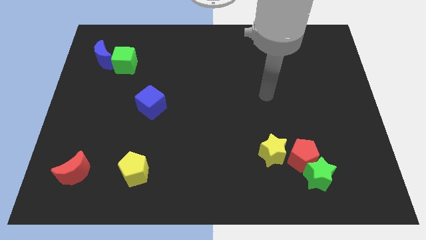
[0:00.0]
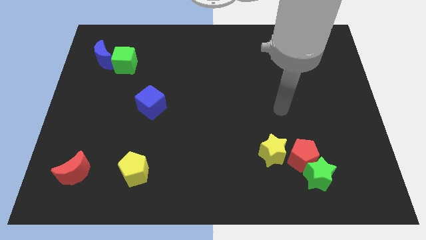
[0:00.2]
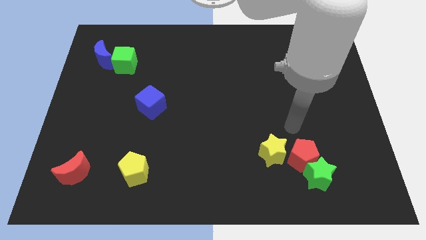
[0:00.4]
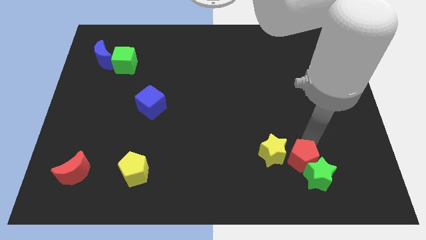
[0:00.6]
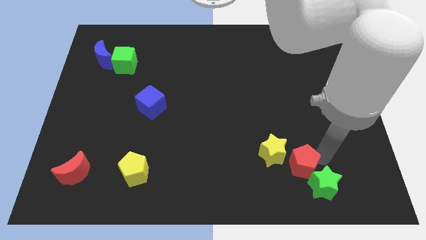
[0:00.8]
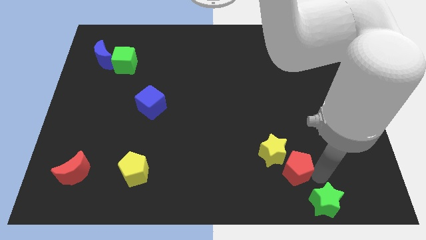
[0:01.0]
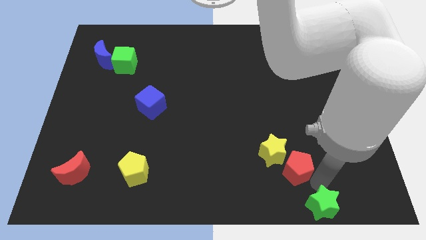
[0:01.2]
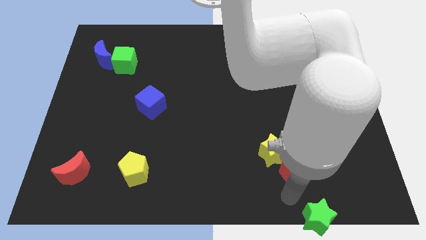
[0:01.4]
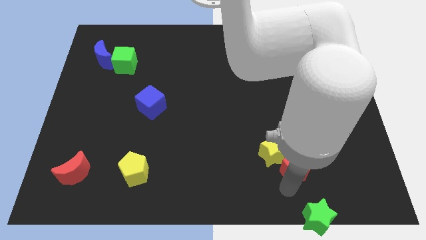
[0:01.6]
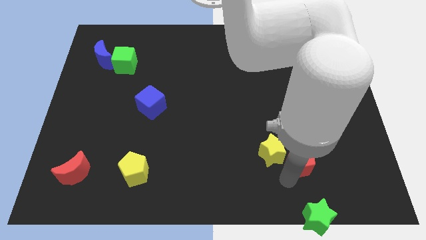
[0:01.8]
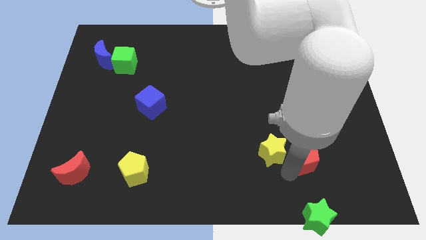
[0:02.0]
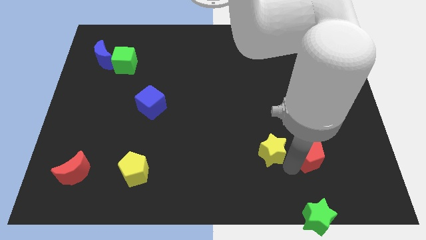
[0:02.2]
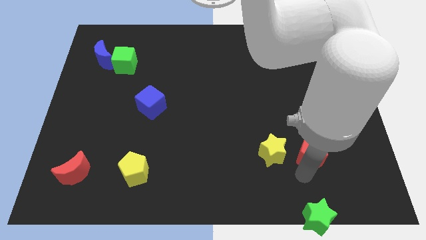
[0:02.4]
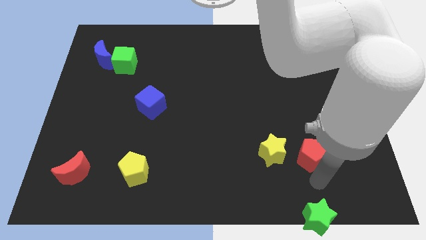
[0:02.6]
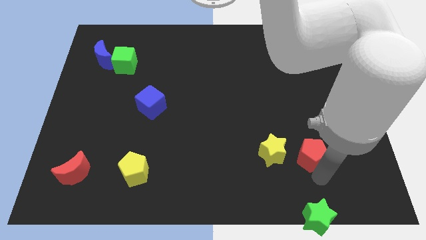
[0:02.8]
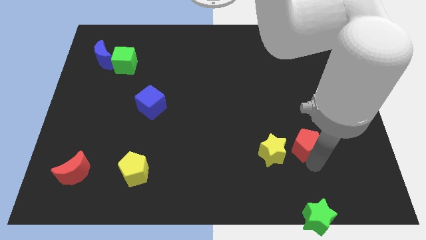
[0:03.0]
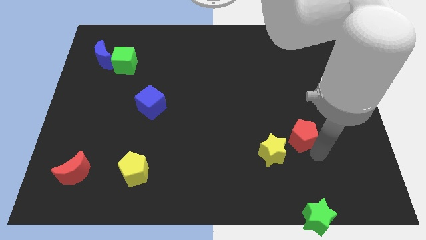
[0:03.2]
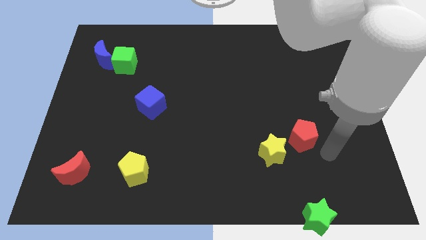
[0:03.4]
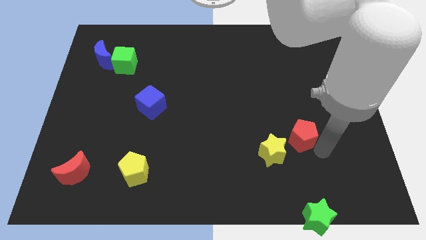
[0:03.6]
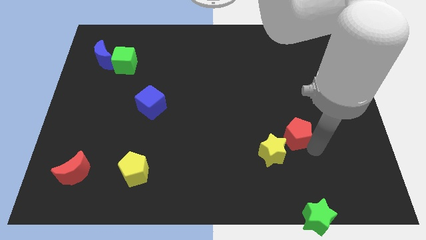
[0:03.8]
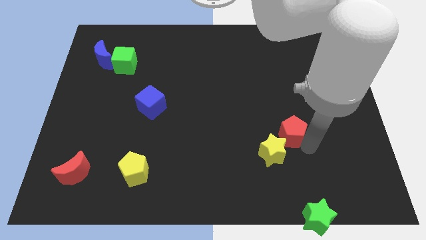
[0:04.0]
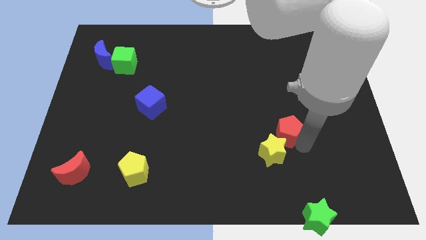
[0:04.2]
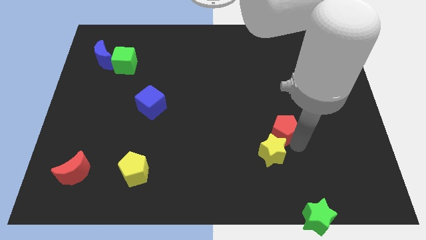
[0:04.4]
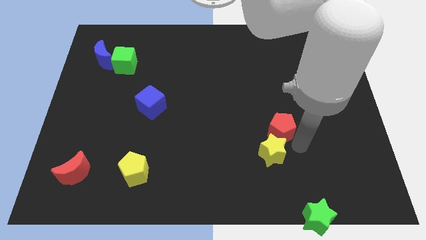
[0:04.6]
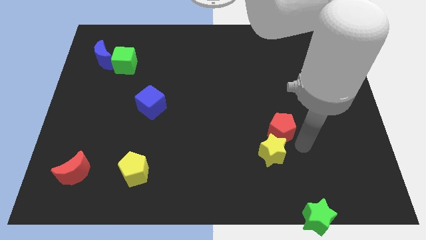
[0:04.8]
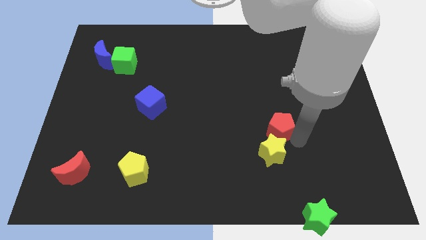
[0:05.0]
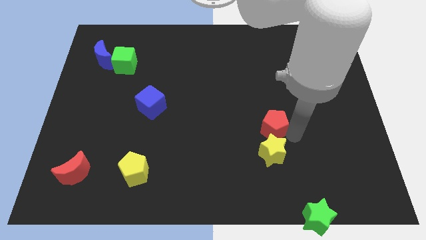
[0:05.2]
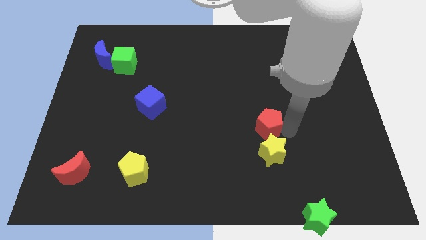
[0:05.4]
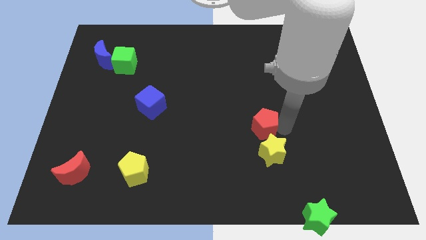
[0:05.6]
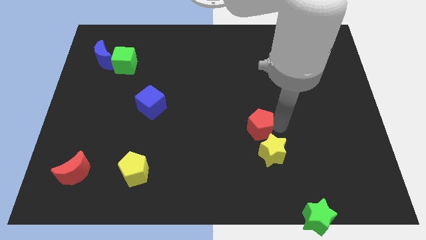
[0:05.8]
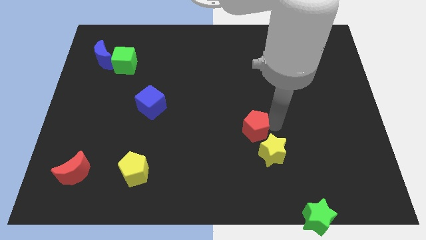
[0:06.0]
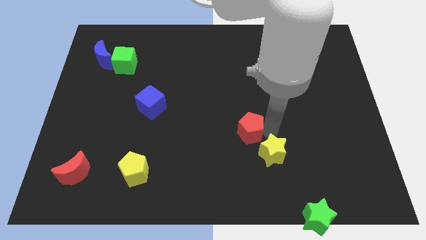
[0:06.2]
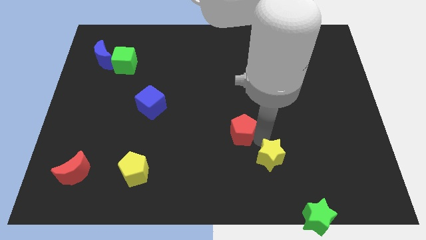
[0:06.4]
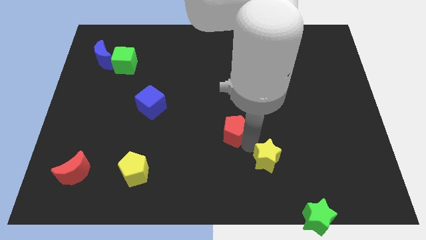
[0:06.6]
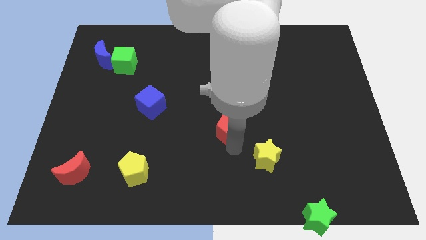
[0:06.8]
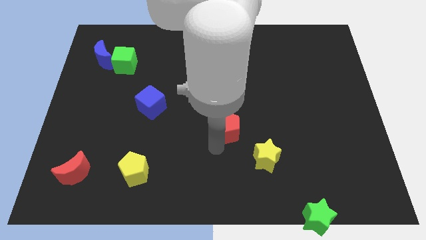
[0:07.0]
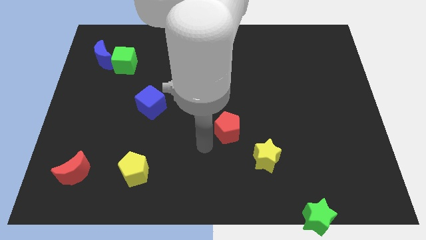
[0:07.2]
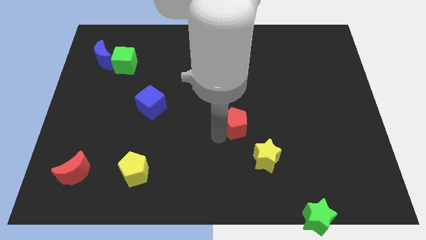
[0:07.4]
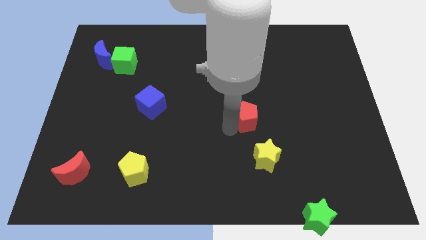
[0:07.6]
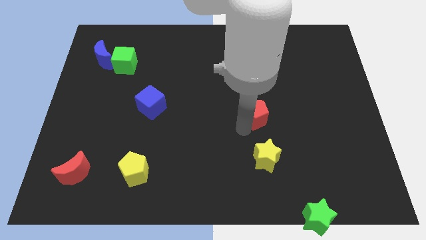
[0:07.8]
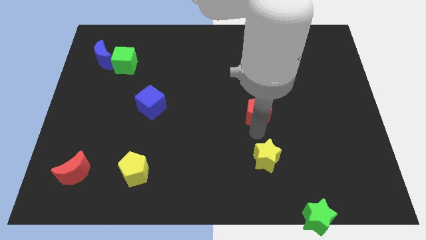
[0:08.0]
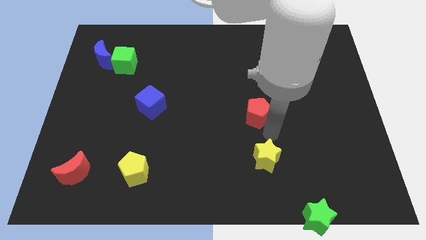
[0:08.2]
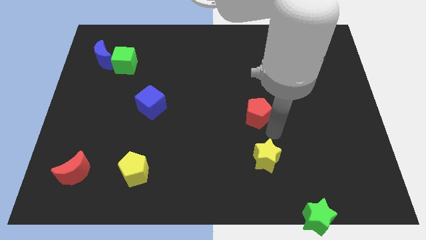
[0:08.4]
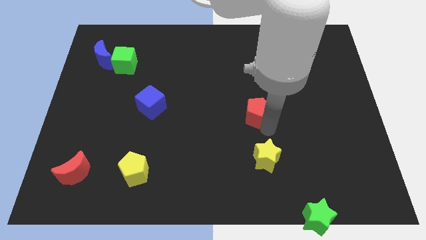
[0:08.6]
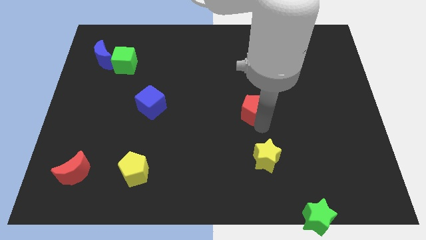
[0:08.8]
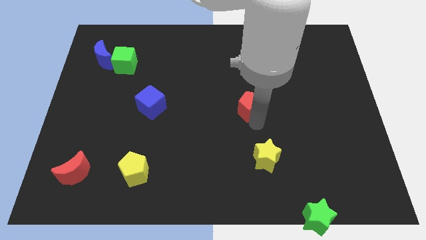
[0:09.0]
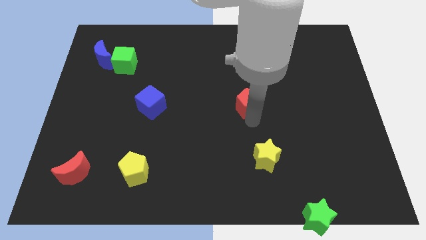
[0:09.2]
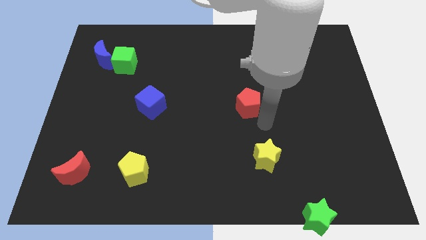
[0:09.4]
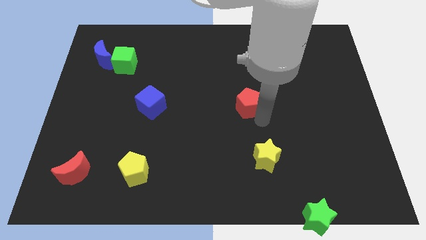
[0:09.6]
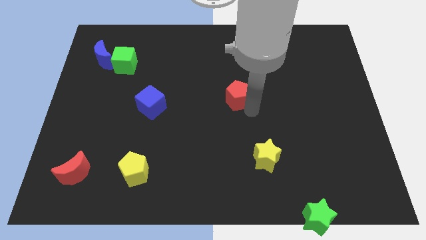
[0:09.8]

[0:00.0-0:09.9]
push the red pentagon diagonally upwards and left

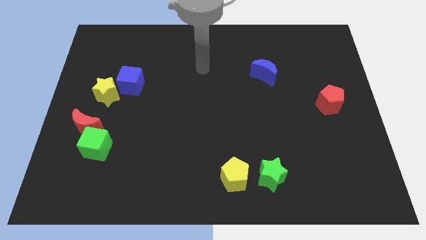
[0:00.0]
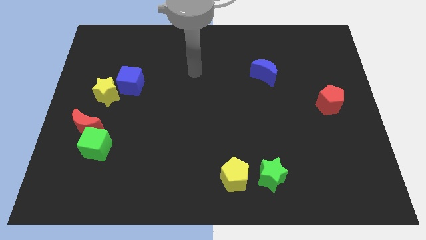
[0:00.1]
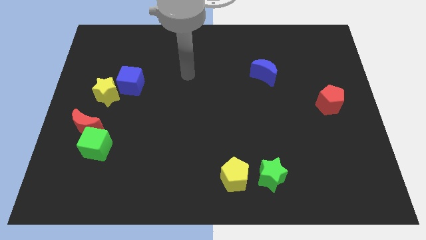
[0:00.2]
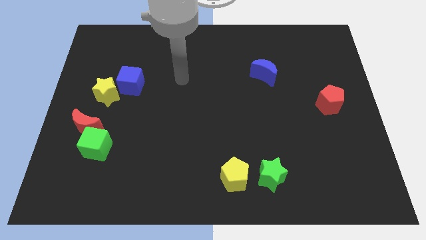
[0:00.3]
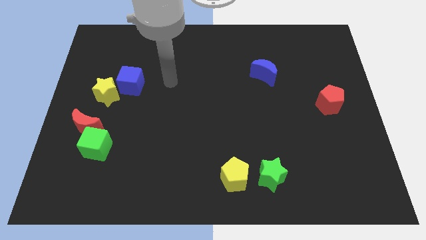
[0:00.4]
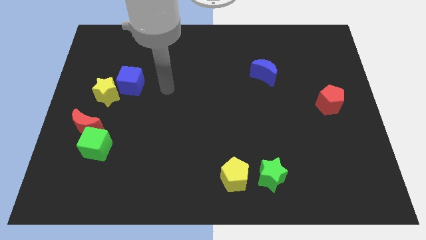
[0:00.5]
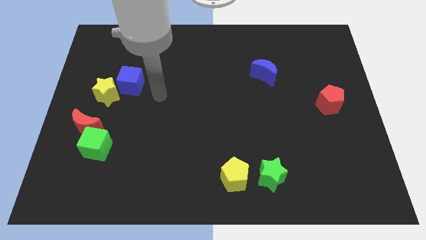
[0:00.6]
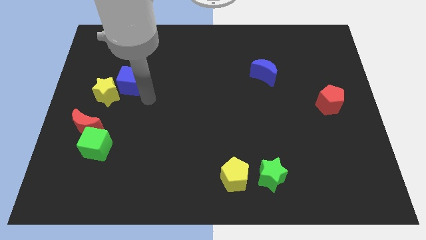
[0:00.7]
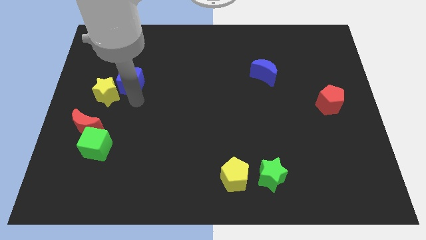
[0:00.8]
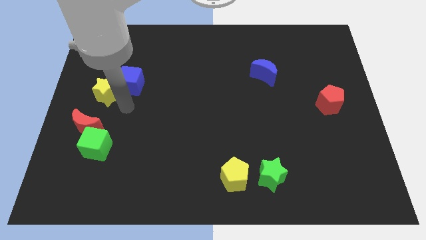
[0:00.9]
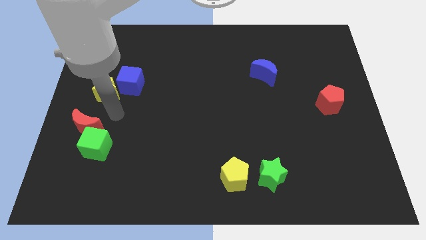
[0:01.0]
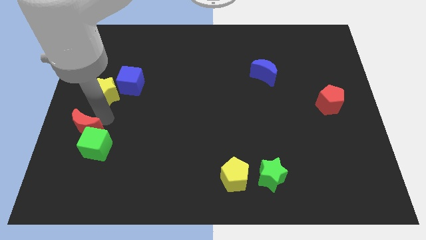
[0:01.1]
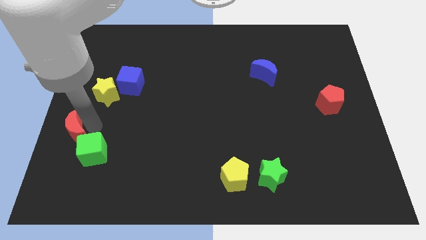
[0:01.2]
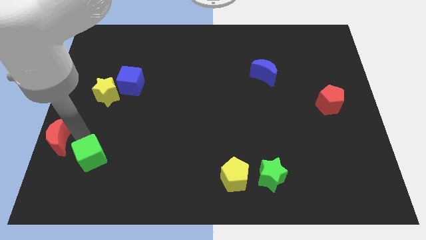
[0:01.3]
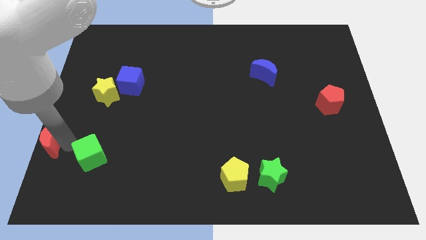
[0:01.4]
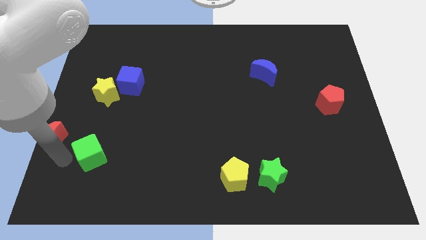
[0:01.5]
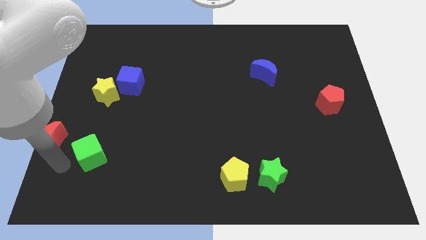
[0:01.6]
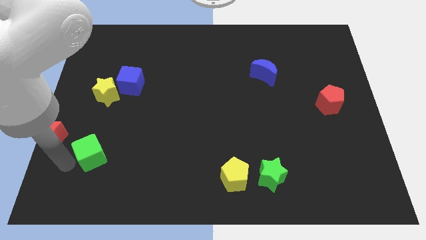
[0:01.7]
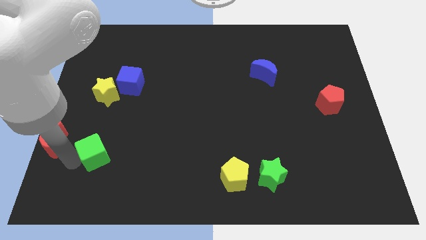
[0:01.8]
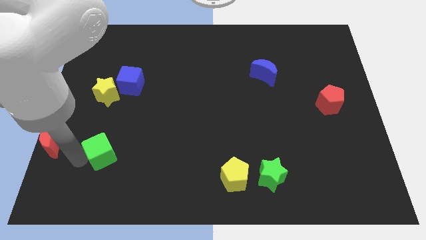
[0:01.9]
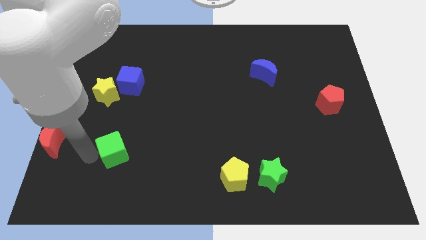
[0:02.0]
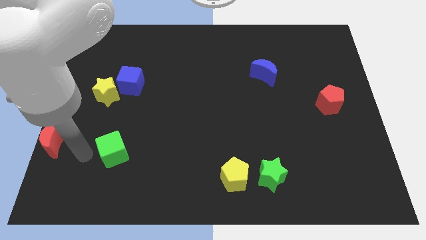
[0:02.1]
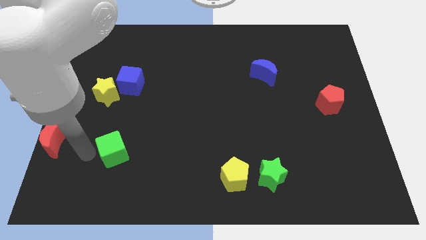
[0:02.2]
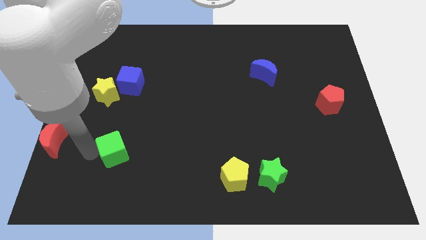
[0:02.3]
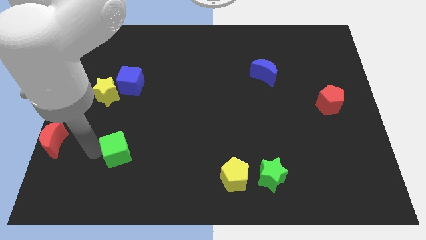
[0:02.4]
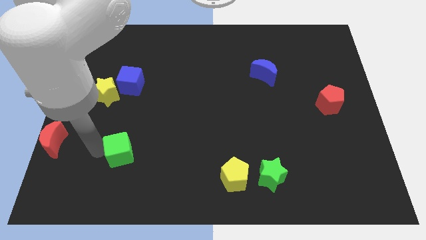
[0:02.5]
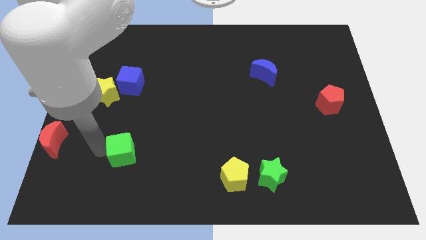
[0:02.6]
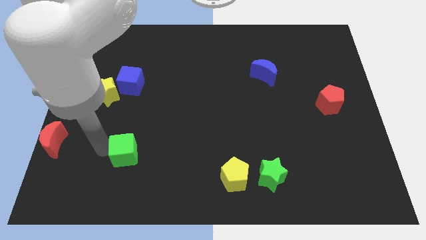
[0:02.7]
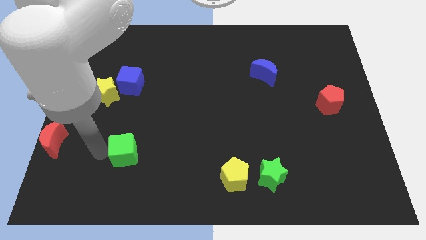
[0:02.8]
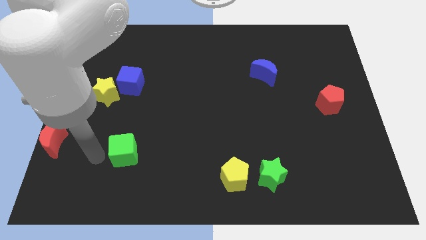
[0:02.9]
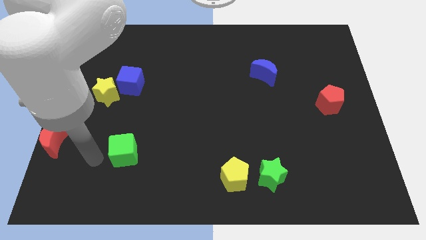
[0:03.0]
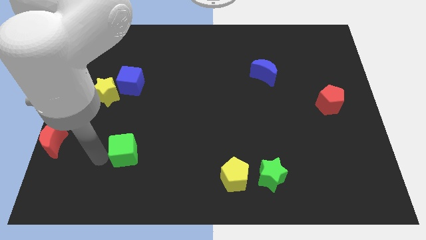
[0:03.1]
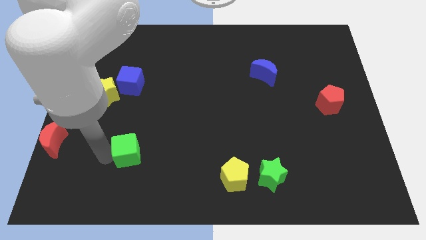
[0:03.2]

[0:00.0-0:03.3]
slide the green cube right a little
